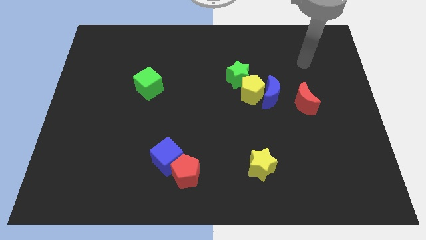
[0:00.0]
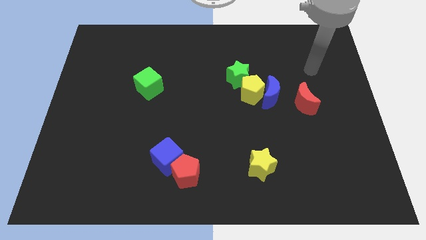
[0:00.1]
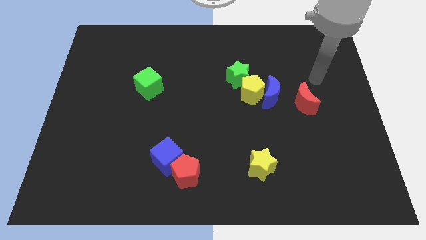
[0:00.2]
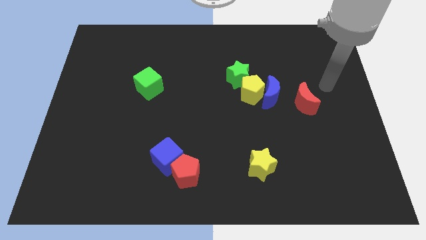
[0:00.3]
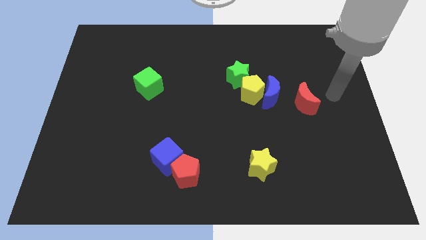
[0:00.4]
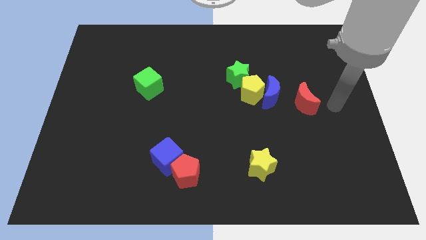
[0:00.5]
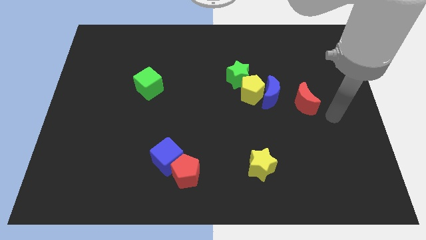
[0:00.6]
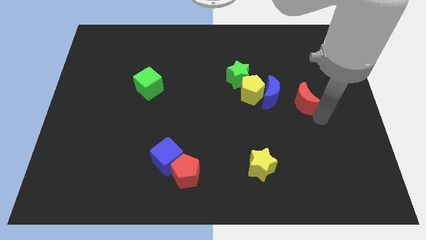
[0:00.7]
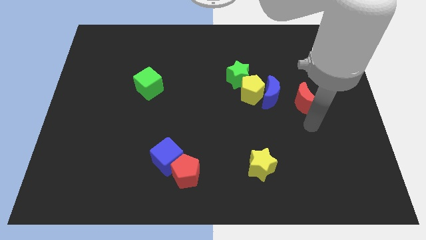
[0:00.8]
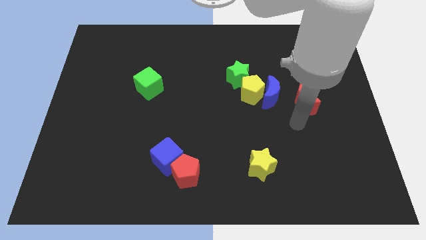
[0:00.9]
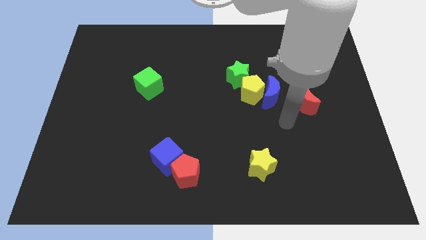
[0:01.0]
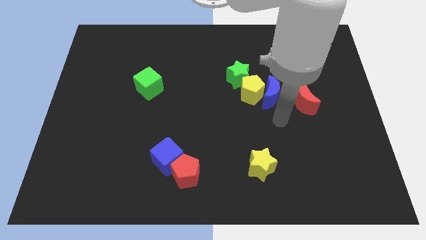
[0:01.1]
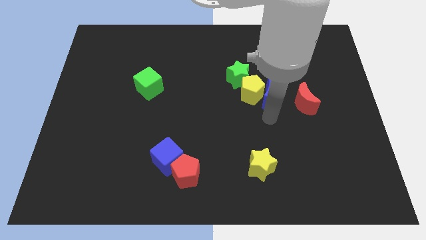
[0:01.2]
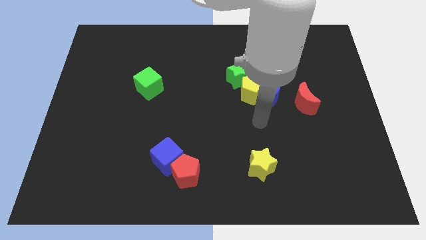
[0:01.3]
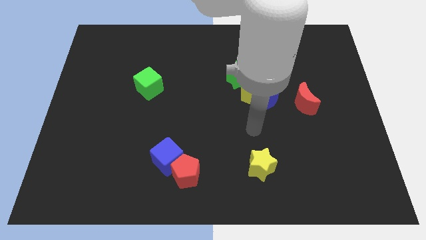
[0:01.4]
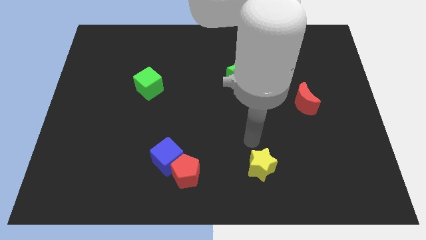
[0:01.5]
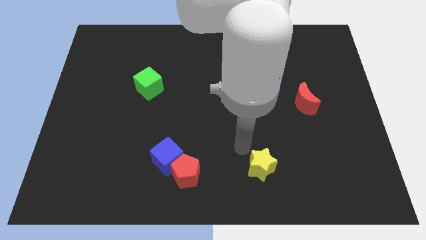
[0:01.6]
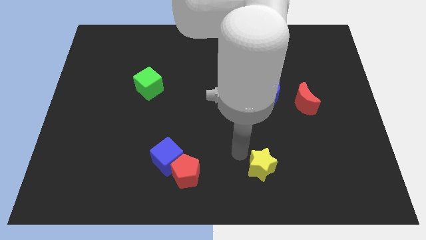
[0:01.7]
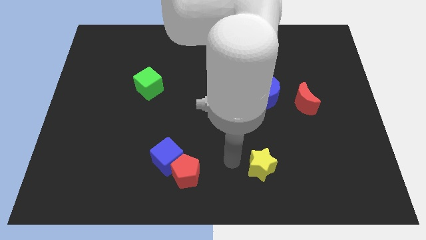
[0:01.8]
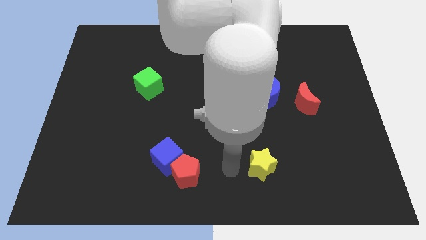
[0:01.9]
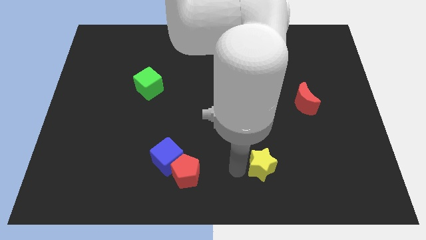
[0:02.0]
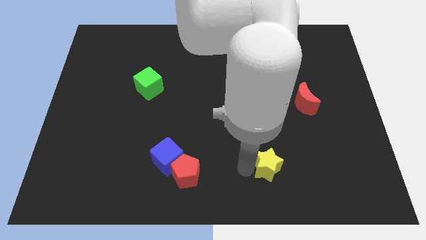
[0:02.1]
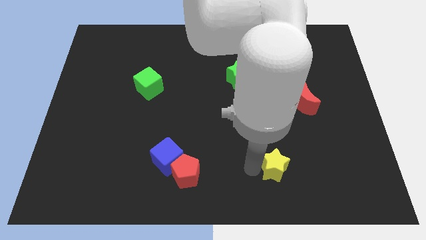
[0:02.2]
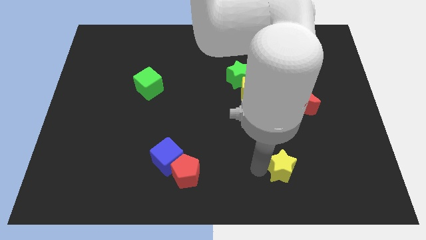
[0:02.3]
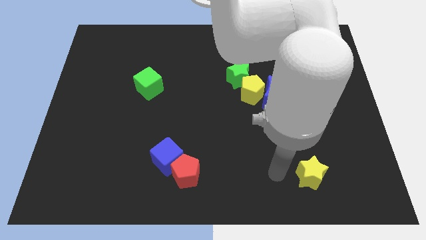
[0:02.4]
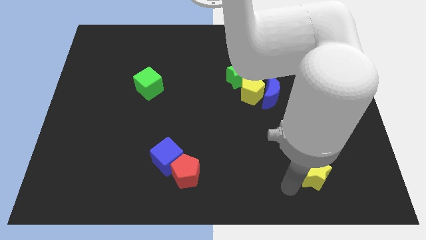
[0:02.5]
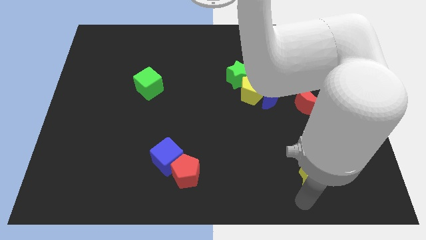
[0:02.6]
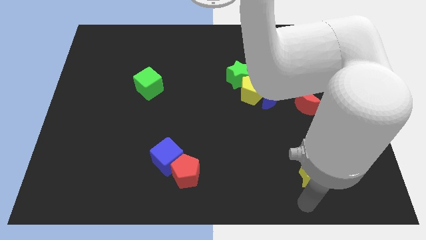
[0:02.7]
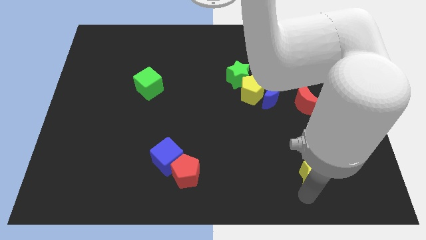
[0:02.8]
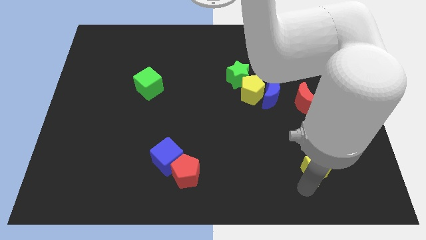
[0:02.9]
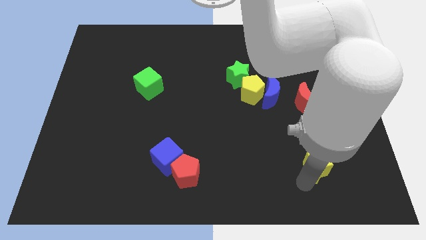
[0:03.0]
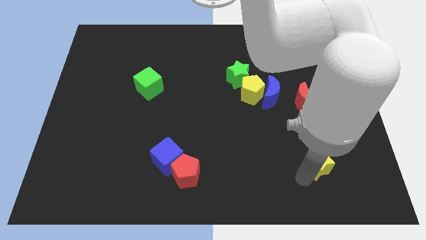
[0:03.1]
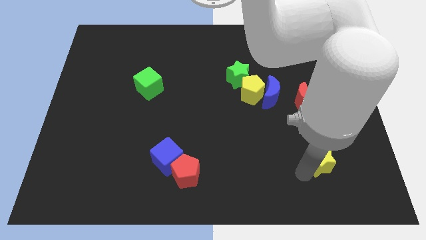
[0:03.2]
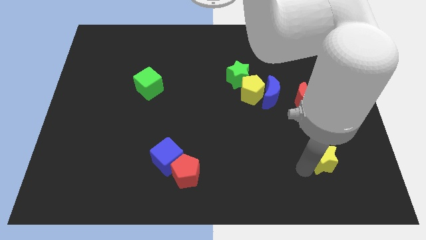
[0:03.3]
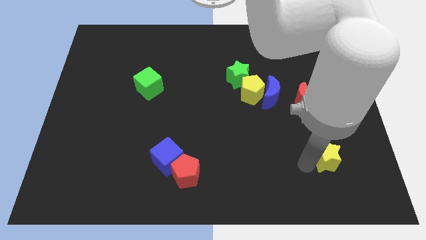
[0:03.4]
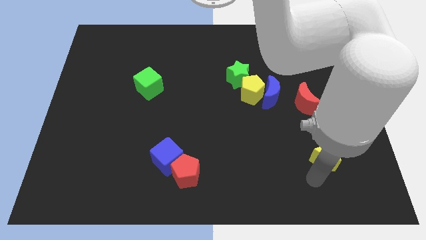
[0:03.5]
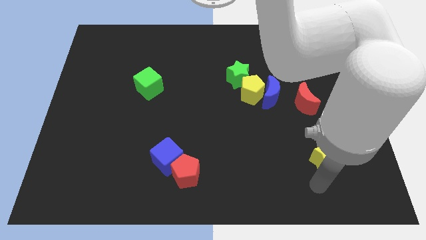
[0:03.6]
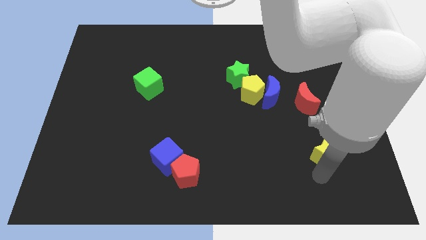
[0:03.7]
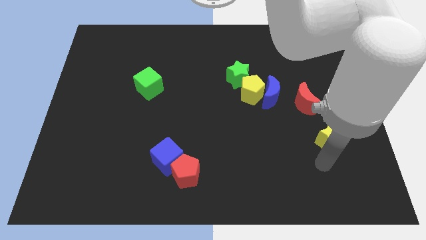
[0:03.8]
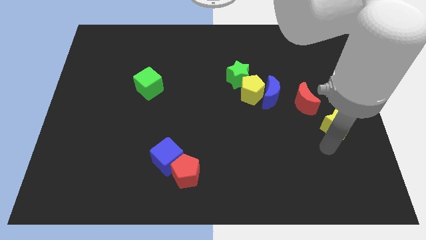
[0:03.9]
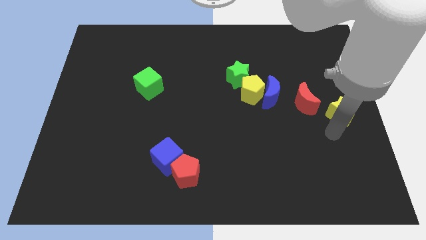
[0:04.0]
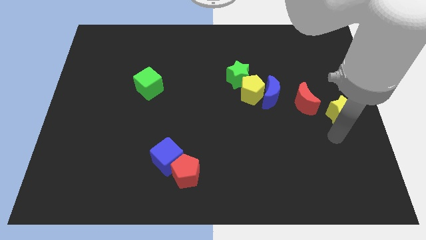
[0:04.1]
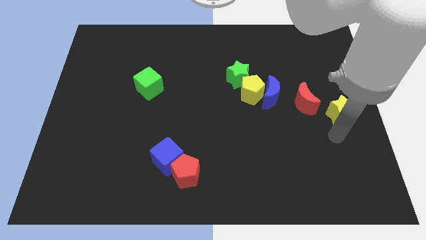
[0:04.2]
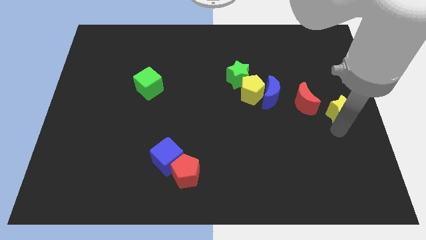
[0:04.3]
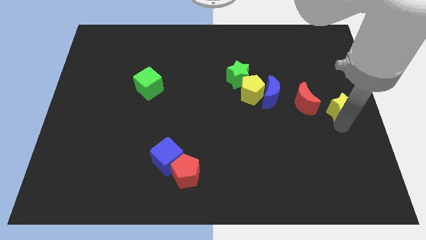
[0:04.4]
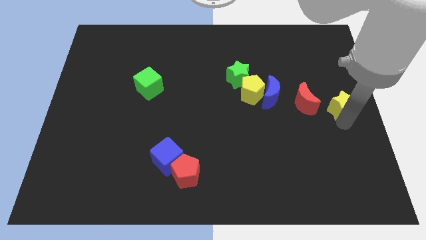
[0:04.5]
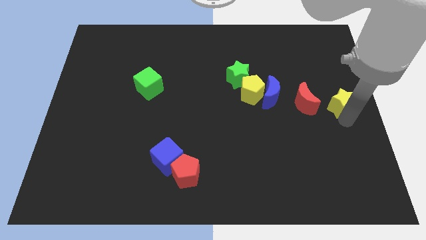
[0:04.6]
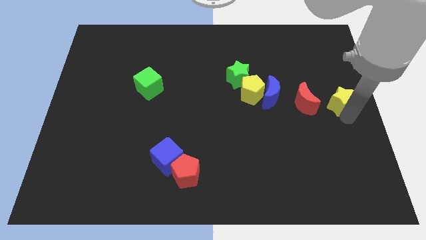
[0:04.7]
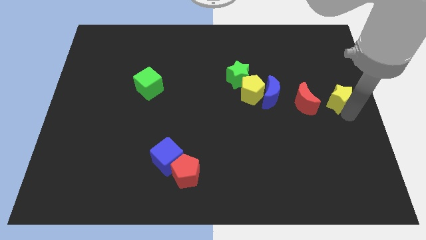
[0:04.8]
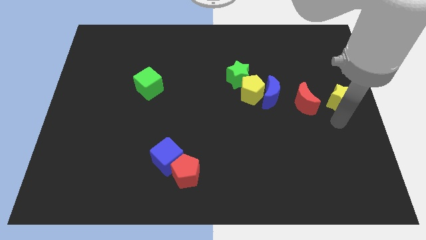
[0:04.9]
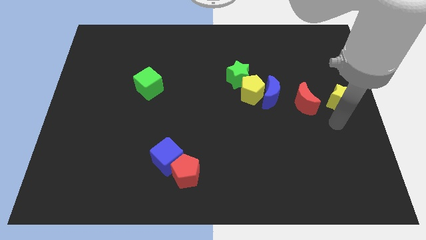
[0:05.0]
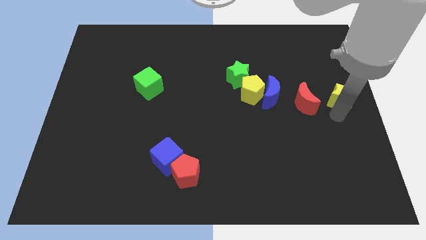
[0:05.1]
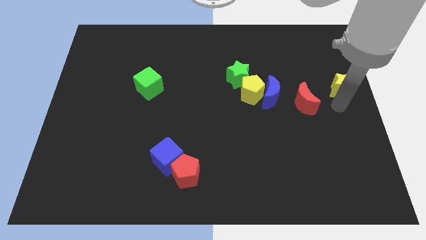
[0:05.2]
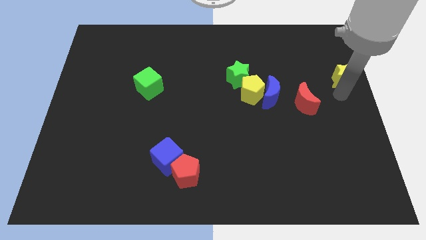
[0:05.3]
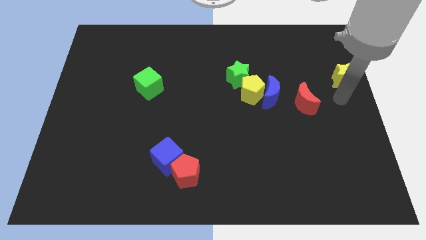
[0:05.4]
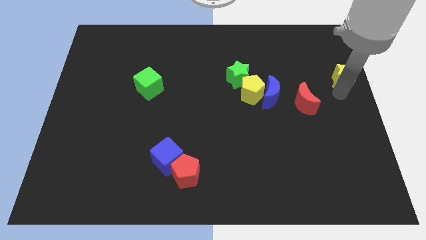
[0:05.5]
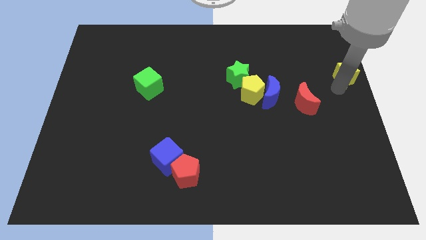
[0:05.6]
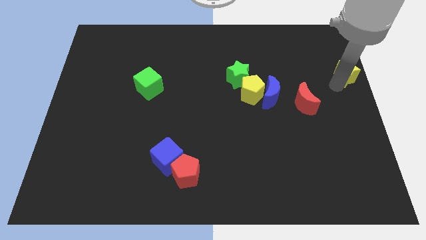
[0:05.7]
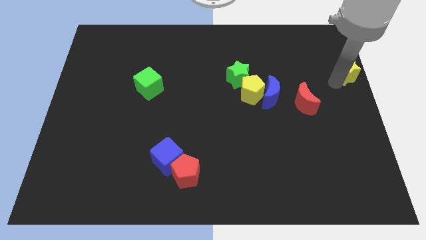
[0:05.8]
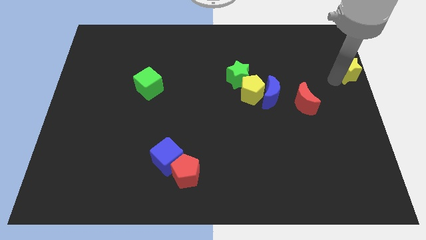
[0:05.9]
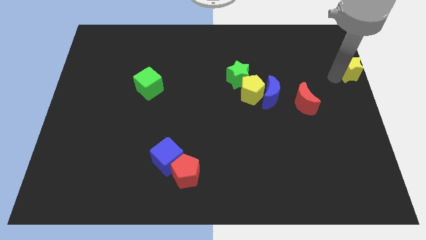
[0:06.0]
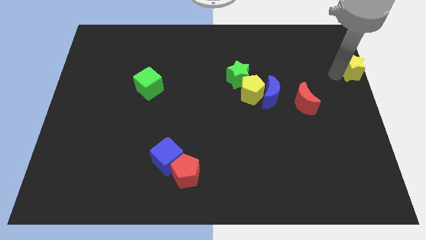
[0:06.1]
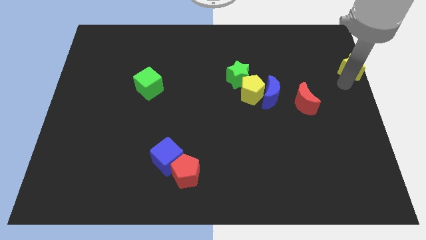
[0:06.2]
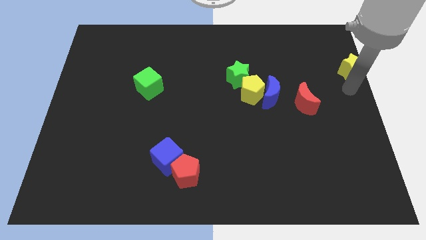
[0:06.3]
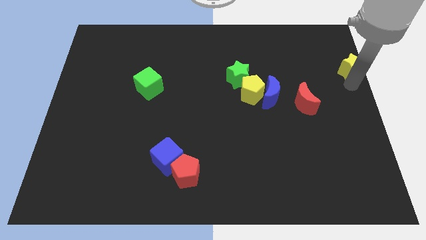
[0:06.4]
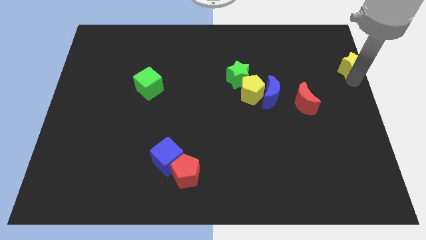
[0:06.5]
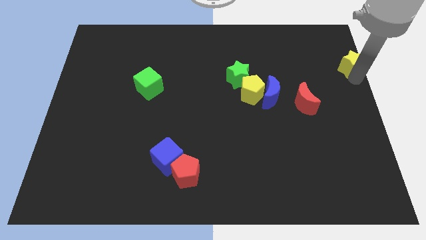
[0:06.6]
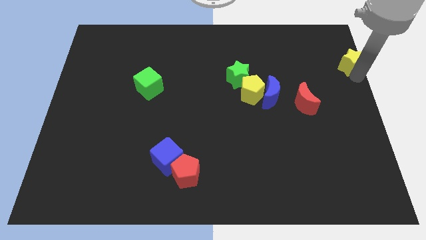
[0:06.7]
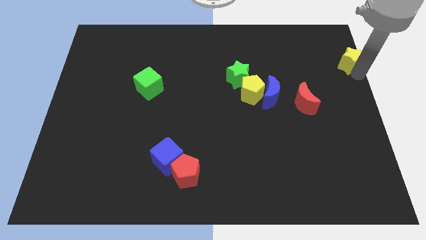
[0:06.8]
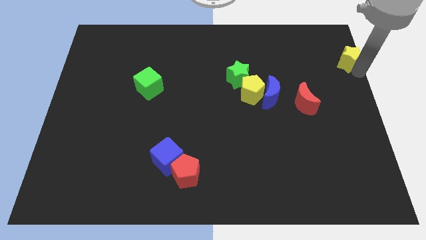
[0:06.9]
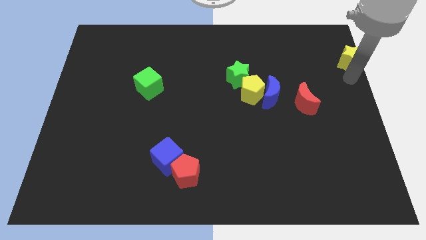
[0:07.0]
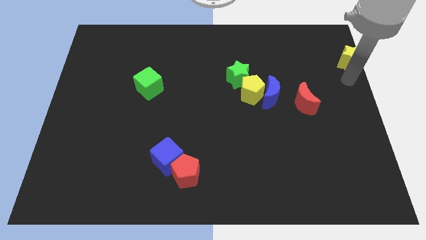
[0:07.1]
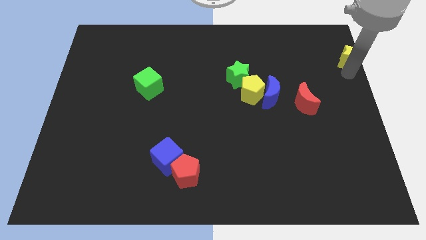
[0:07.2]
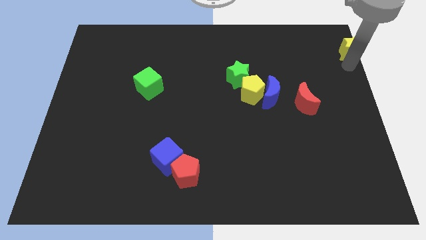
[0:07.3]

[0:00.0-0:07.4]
move the yellow star to the top right of the board
